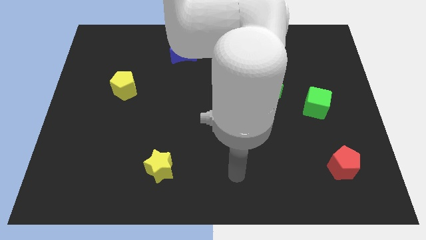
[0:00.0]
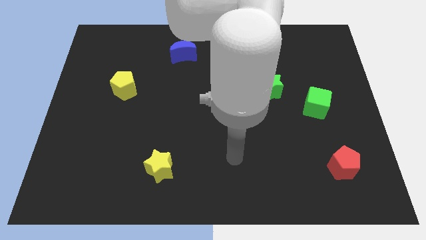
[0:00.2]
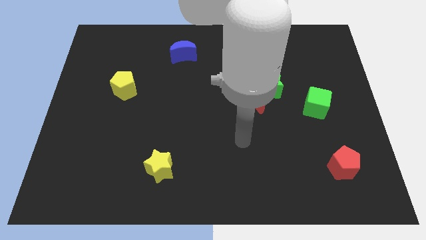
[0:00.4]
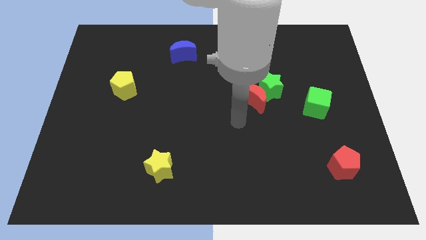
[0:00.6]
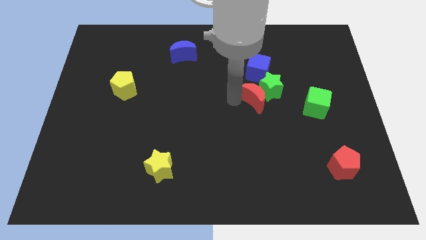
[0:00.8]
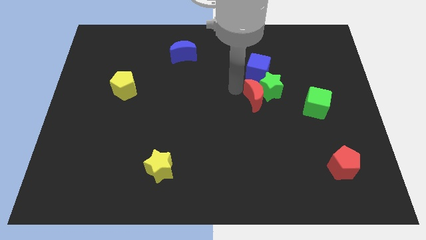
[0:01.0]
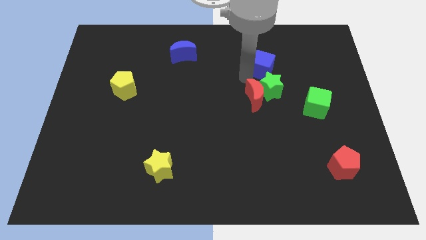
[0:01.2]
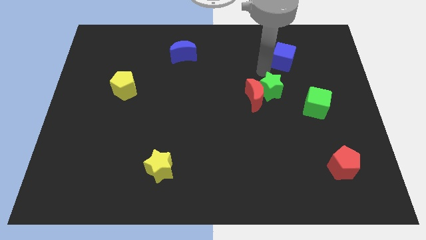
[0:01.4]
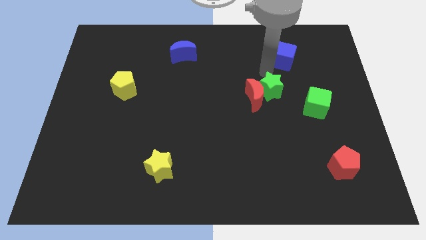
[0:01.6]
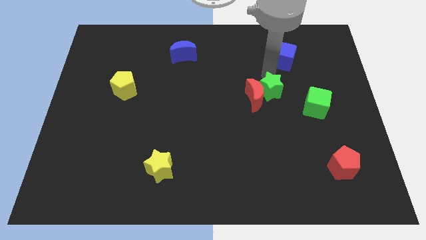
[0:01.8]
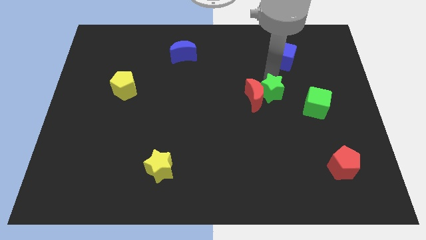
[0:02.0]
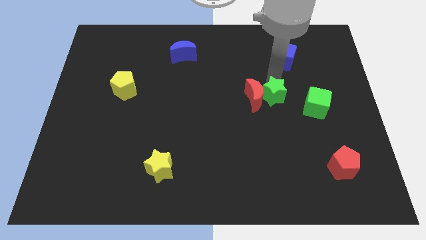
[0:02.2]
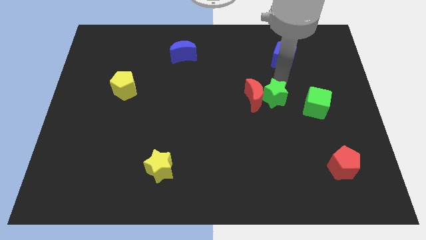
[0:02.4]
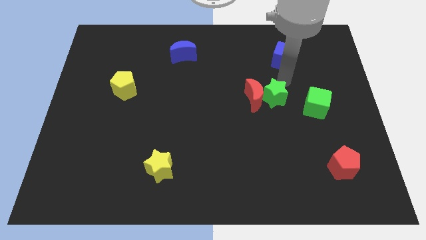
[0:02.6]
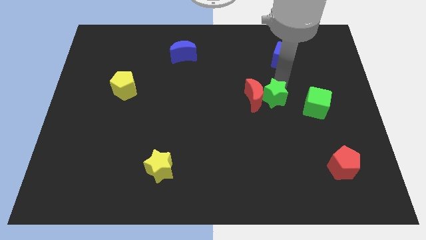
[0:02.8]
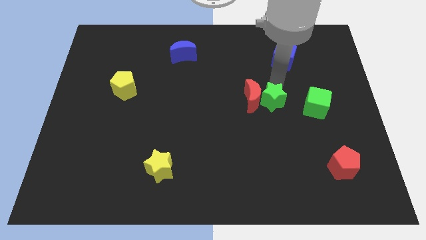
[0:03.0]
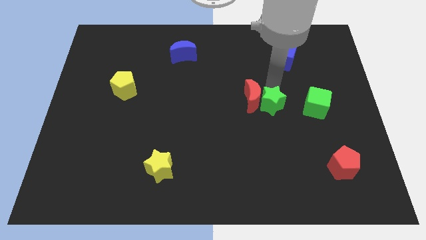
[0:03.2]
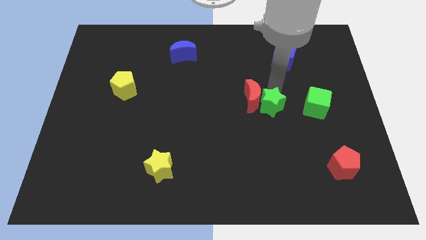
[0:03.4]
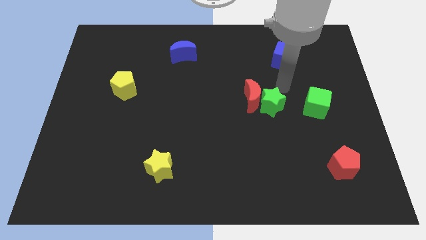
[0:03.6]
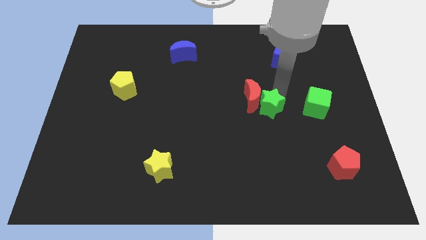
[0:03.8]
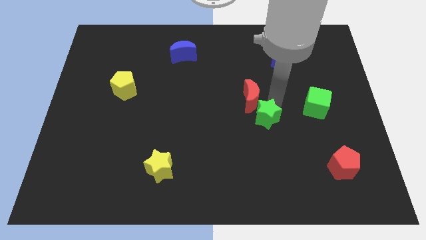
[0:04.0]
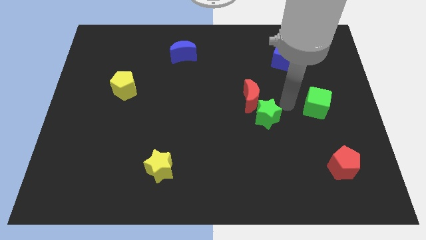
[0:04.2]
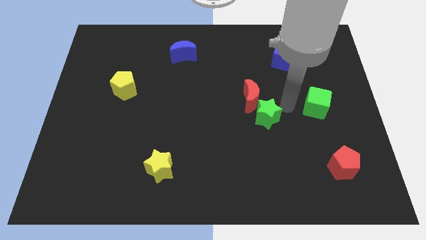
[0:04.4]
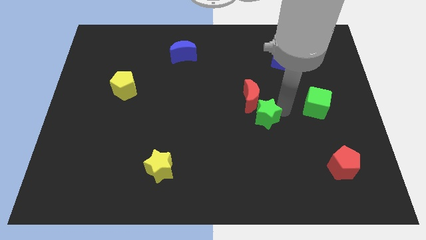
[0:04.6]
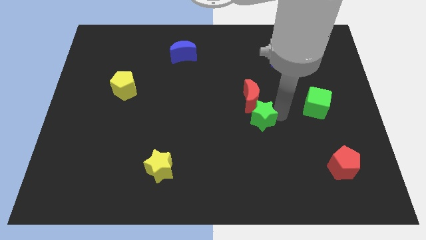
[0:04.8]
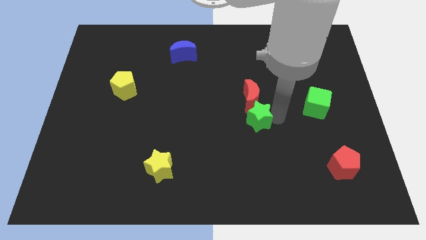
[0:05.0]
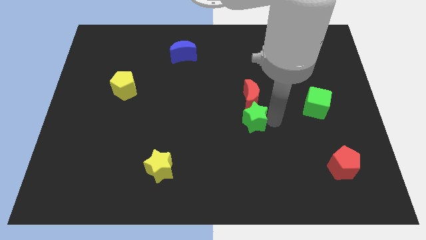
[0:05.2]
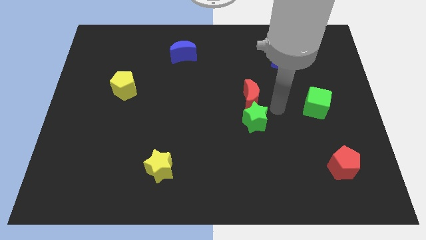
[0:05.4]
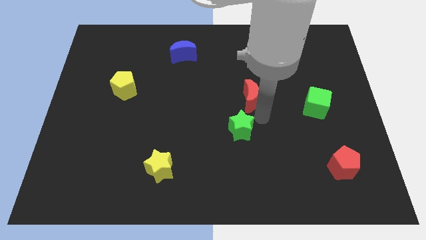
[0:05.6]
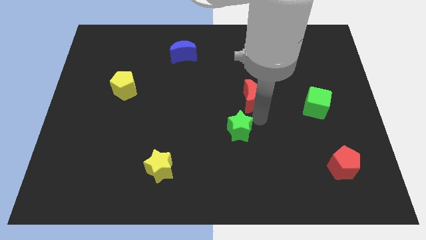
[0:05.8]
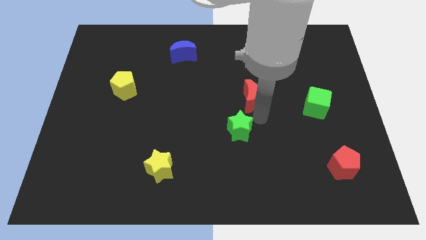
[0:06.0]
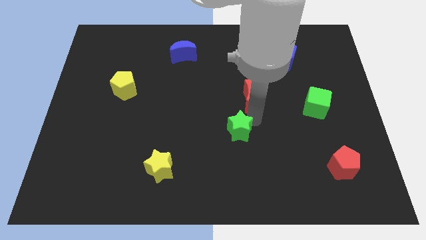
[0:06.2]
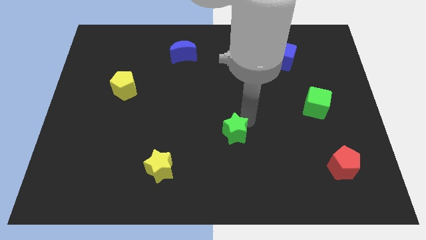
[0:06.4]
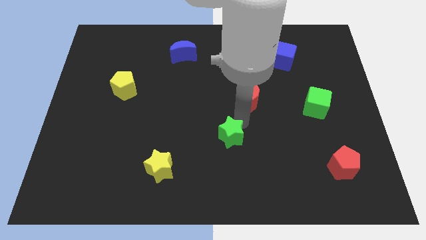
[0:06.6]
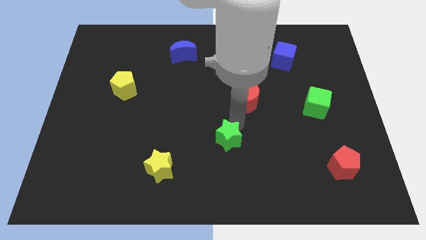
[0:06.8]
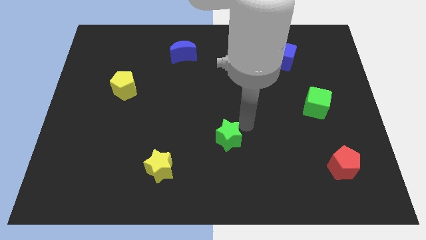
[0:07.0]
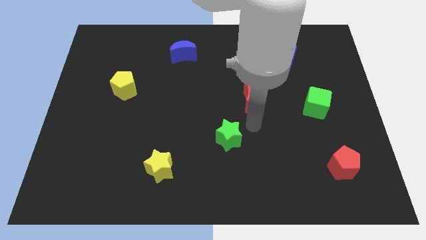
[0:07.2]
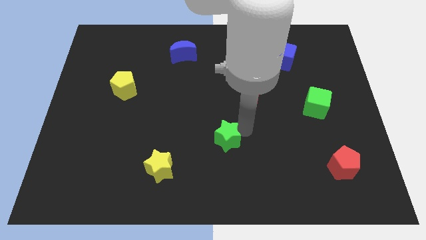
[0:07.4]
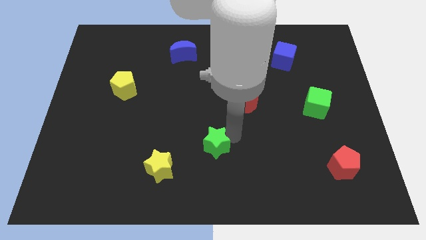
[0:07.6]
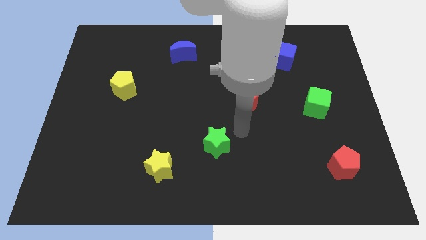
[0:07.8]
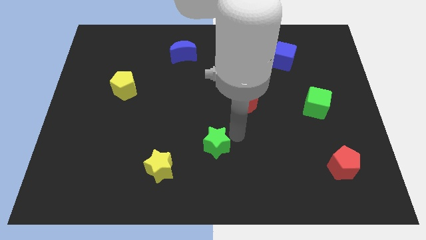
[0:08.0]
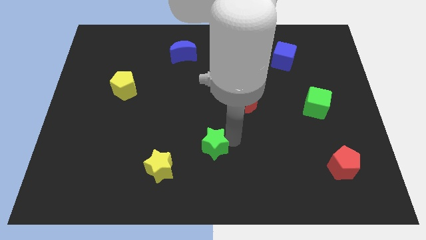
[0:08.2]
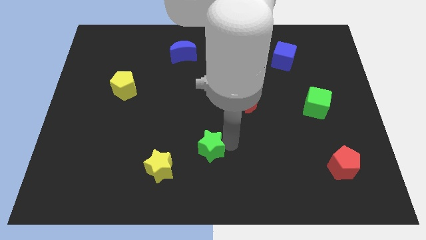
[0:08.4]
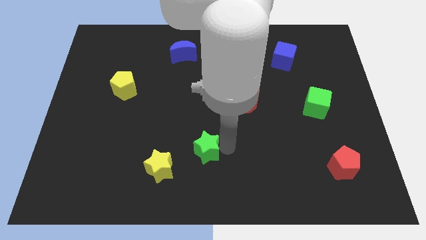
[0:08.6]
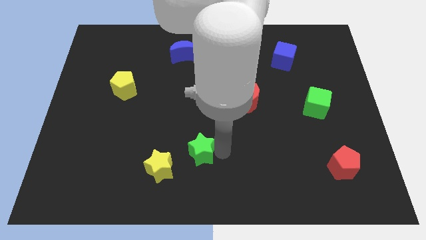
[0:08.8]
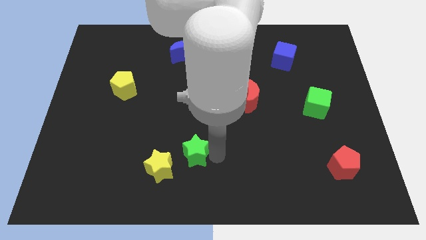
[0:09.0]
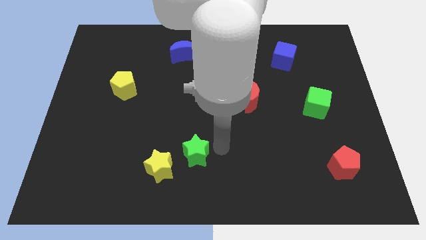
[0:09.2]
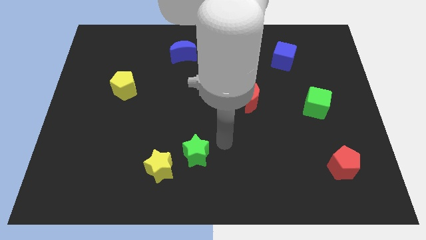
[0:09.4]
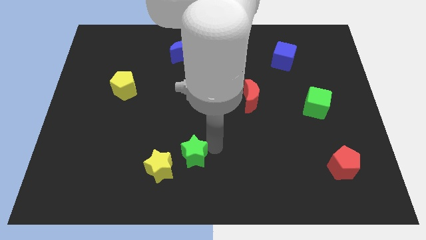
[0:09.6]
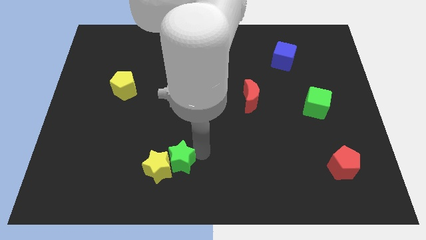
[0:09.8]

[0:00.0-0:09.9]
move the green star to the yellow star

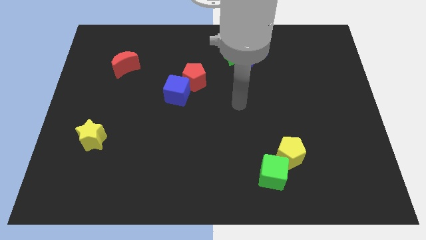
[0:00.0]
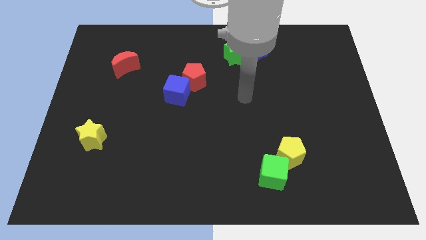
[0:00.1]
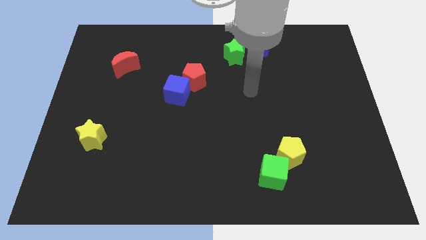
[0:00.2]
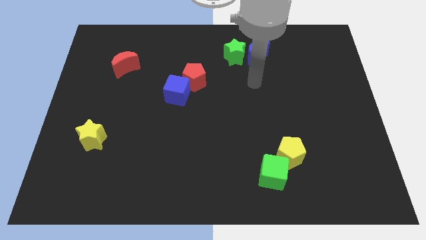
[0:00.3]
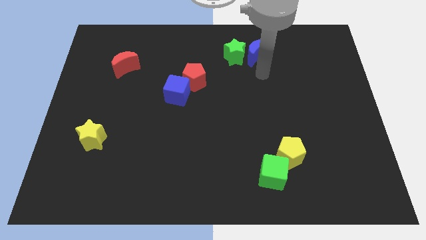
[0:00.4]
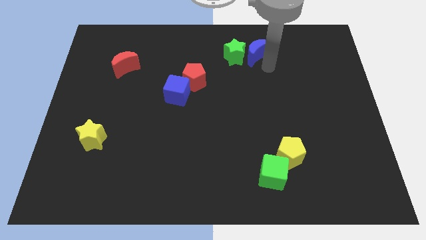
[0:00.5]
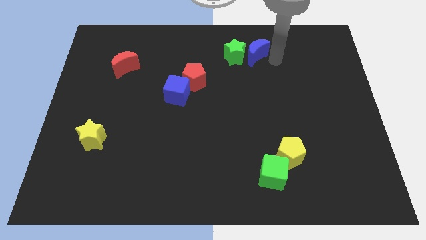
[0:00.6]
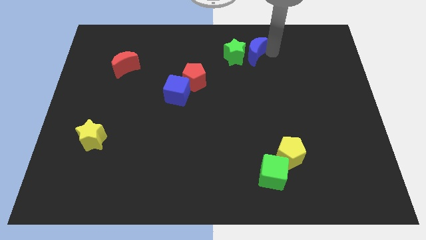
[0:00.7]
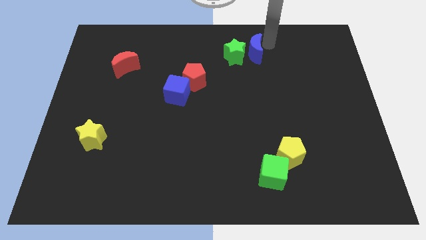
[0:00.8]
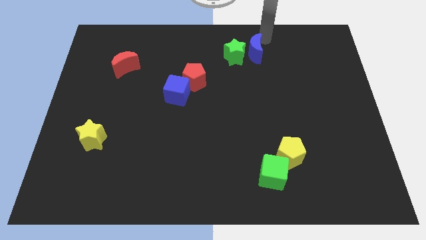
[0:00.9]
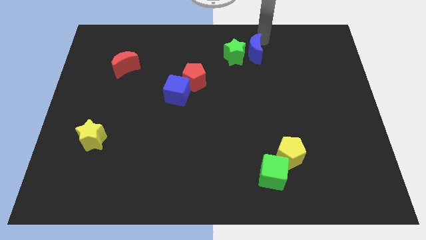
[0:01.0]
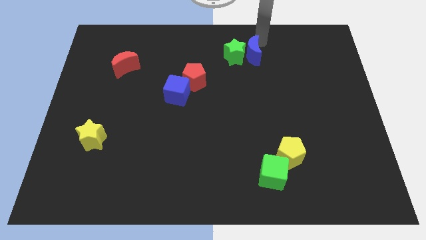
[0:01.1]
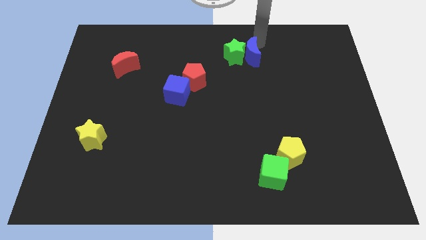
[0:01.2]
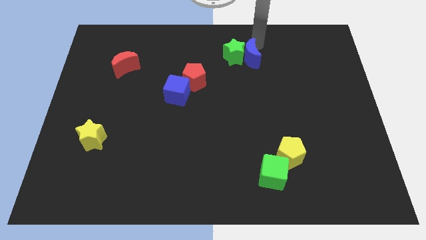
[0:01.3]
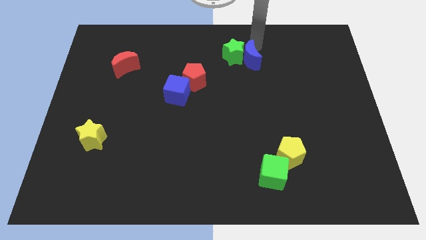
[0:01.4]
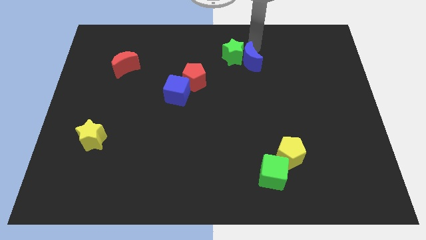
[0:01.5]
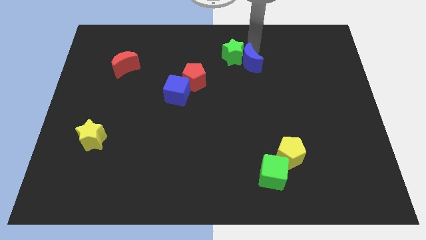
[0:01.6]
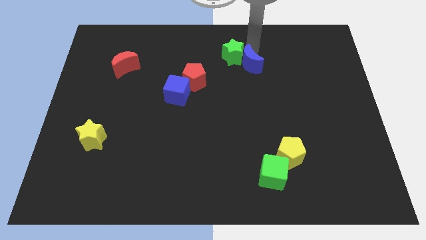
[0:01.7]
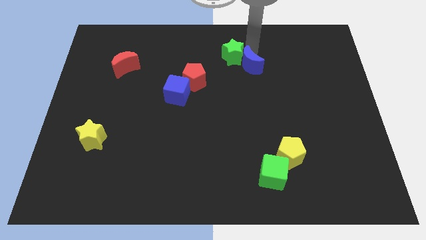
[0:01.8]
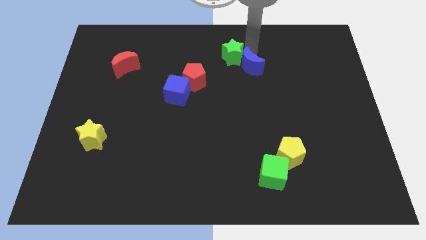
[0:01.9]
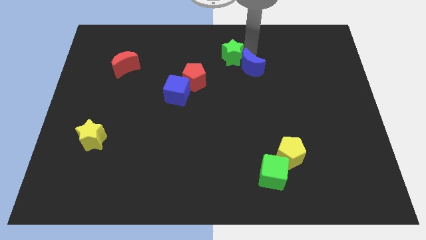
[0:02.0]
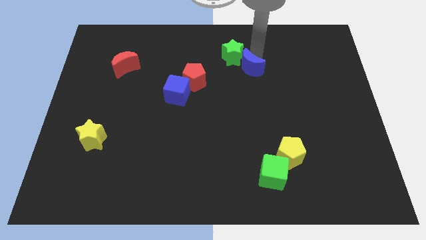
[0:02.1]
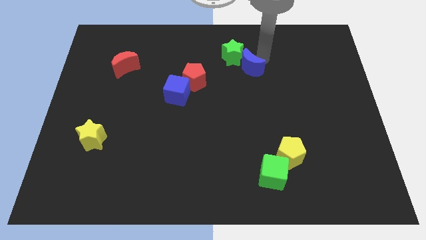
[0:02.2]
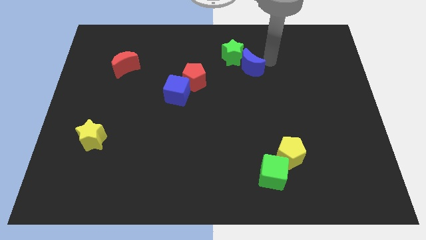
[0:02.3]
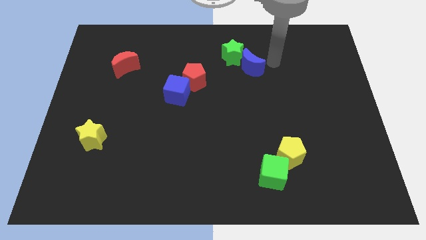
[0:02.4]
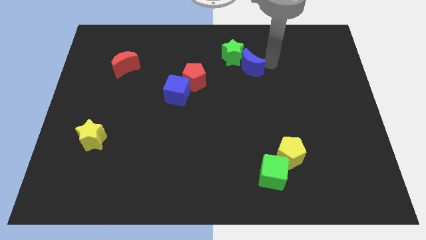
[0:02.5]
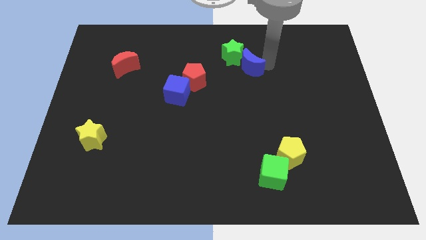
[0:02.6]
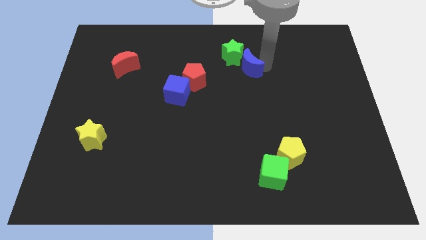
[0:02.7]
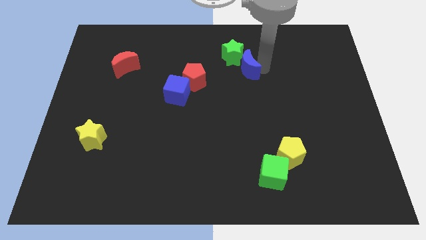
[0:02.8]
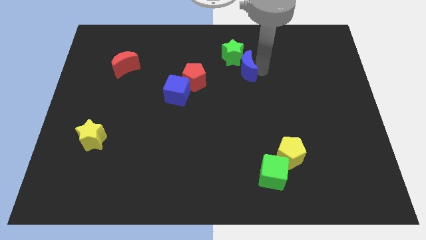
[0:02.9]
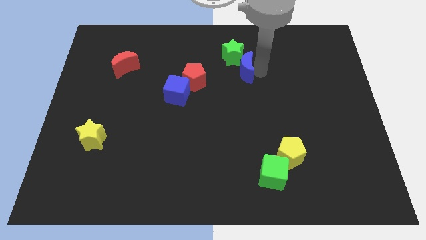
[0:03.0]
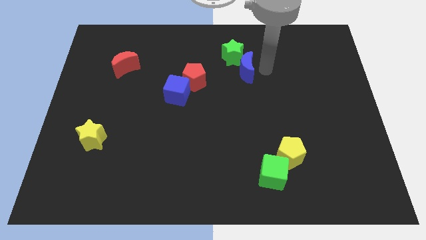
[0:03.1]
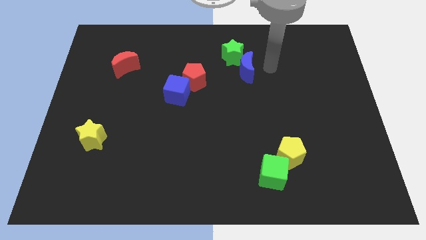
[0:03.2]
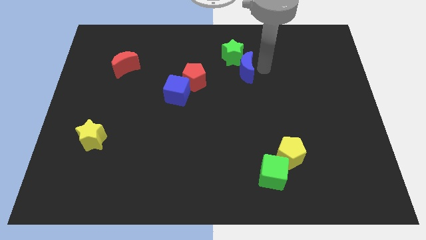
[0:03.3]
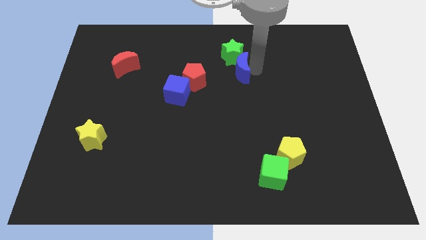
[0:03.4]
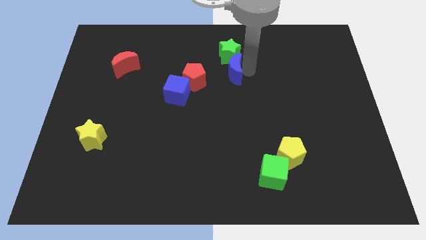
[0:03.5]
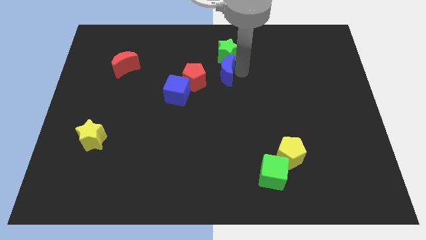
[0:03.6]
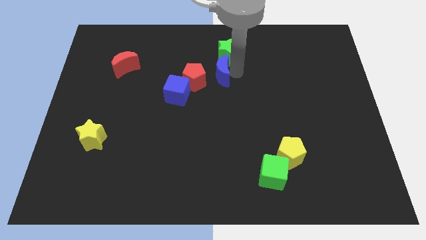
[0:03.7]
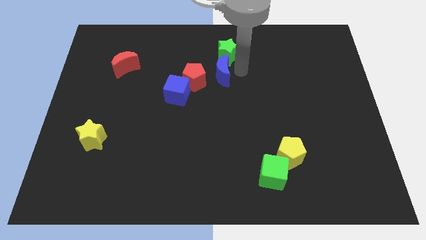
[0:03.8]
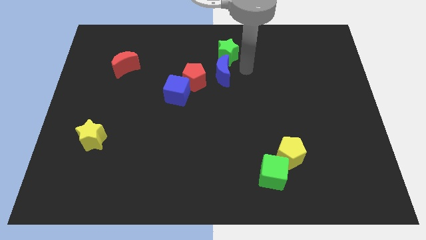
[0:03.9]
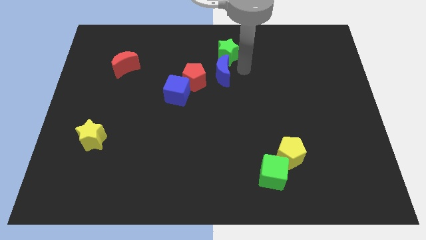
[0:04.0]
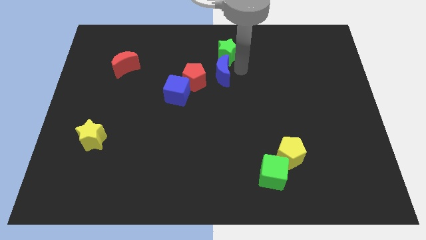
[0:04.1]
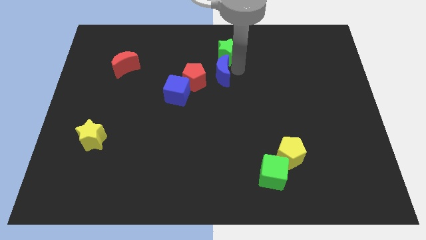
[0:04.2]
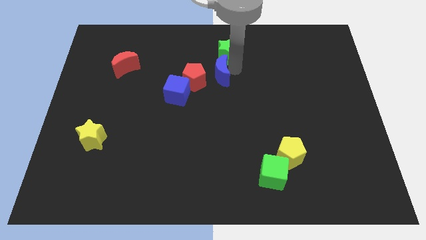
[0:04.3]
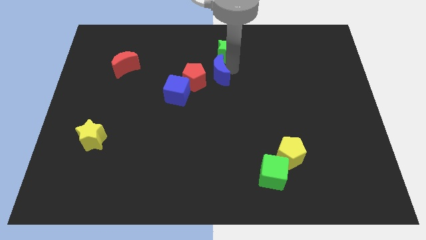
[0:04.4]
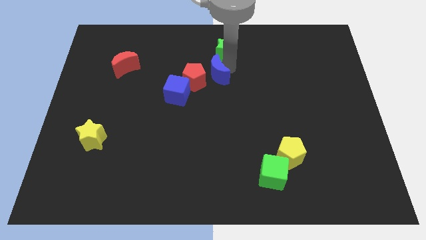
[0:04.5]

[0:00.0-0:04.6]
push the blue moon towards the red pentagon
